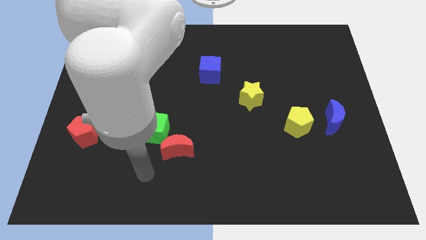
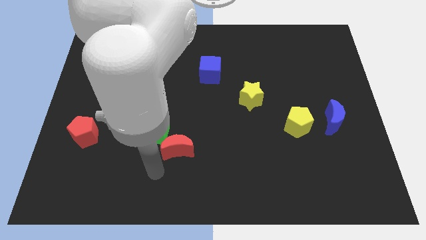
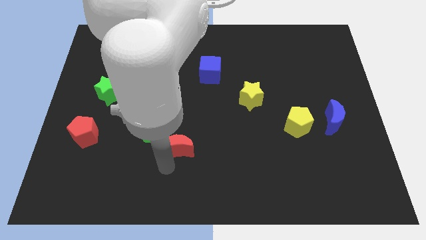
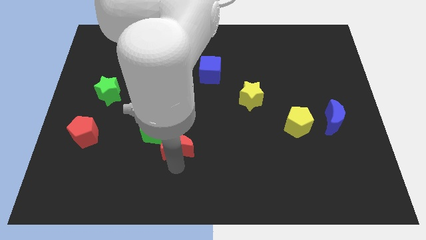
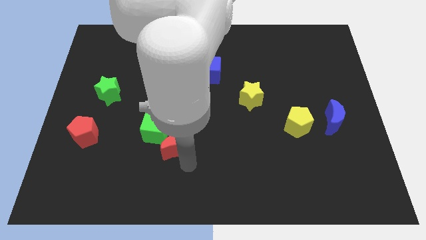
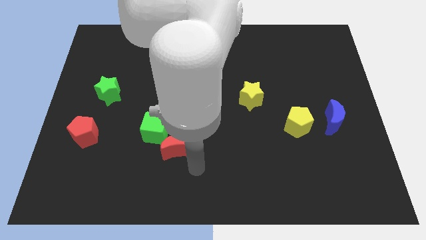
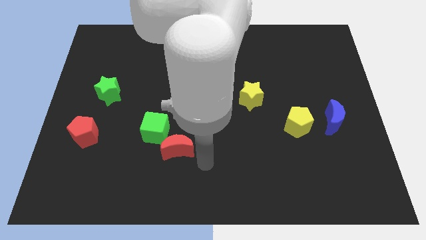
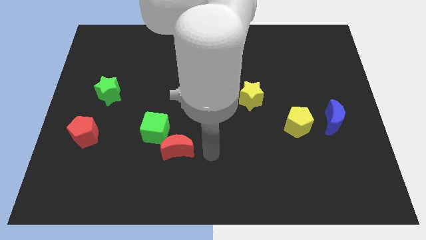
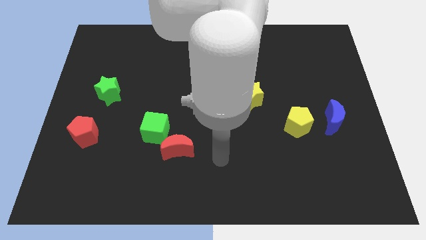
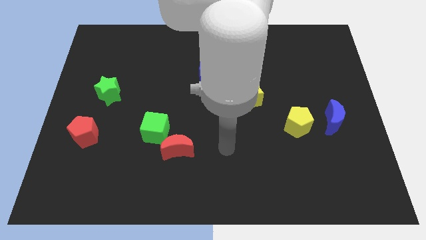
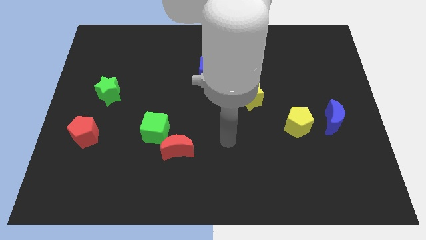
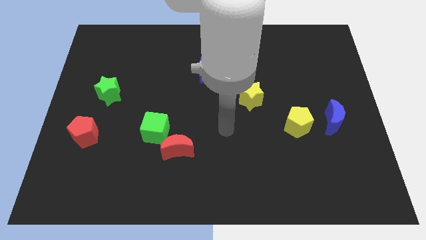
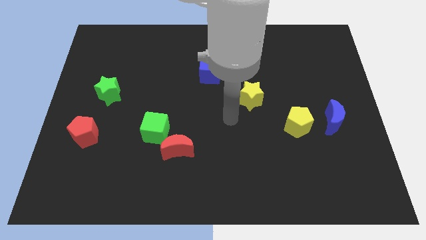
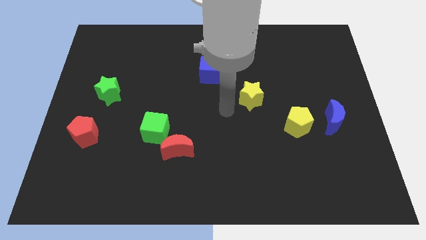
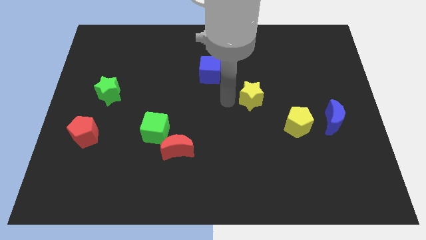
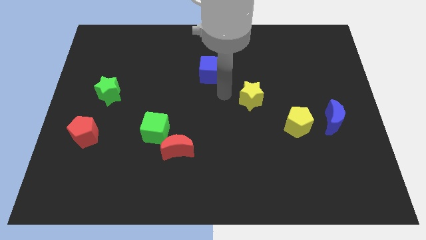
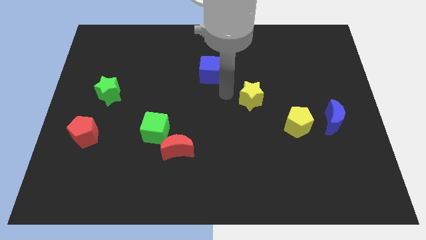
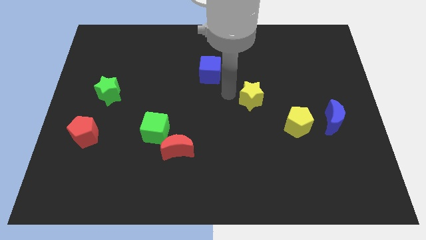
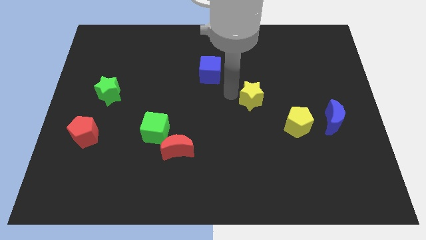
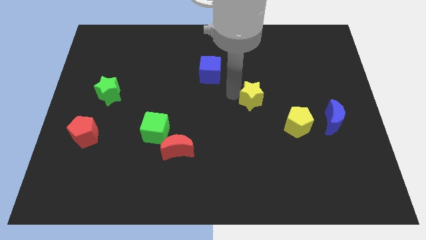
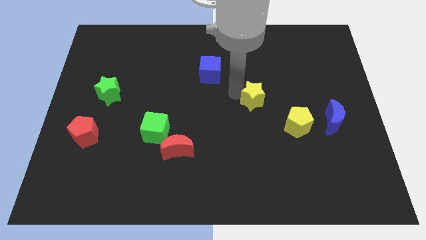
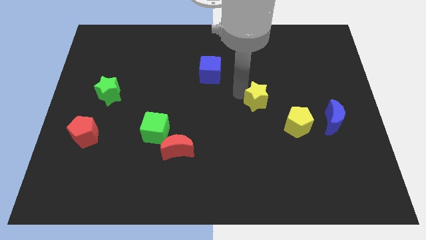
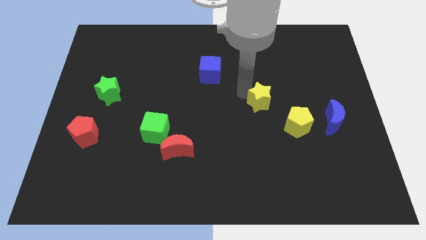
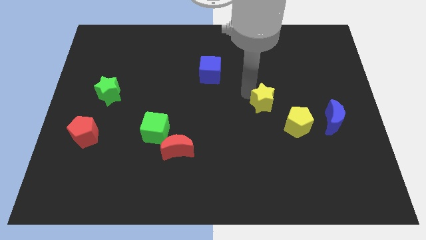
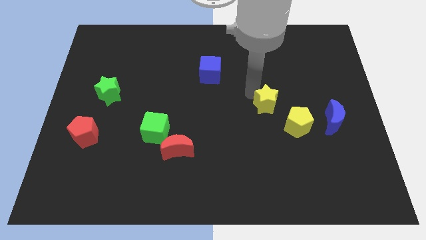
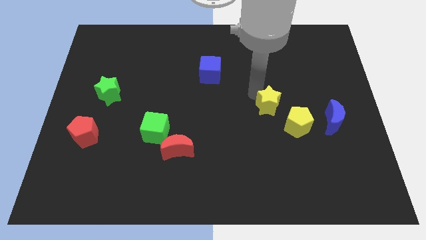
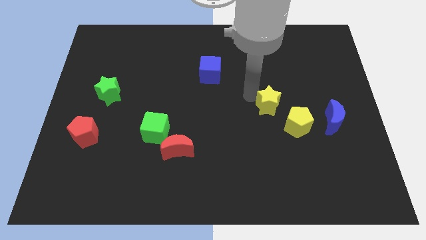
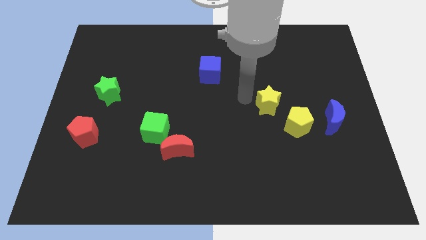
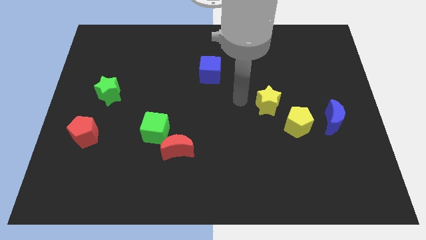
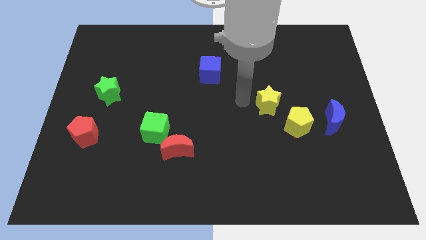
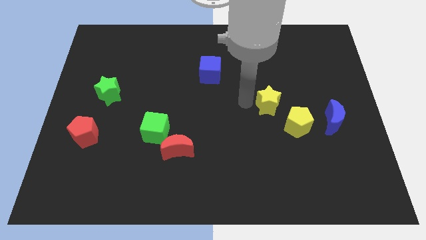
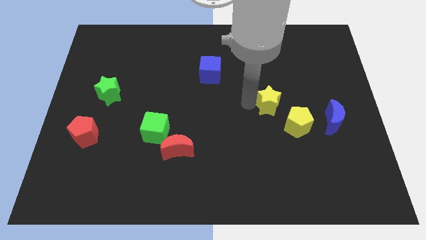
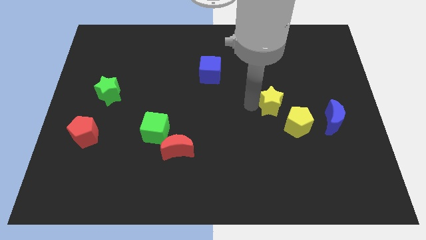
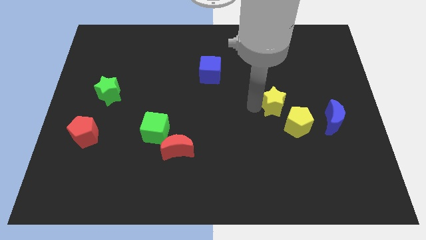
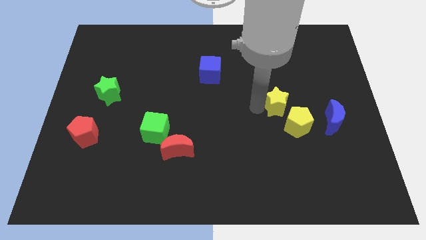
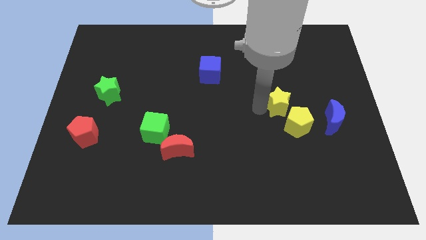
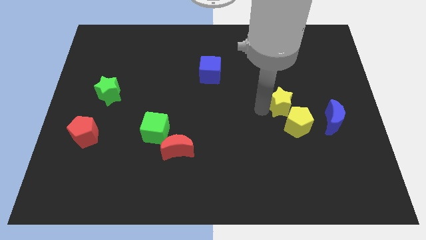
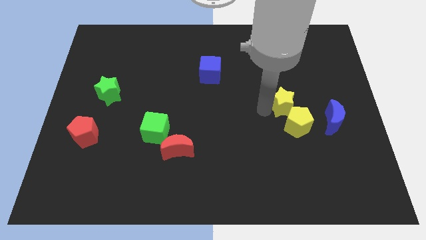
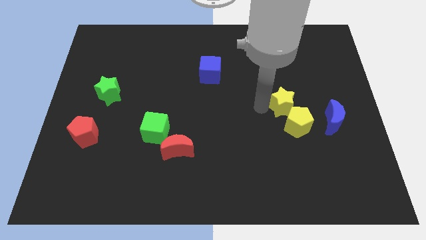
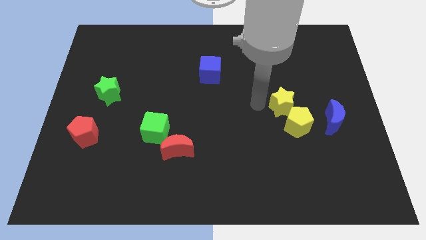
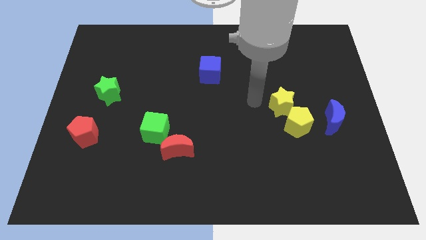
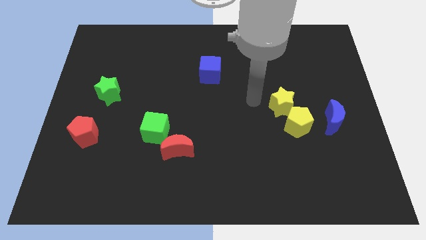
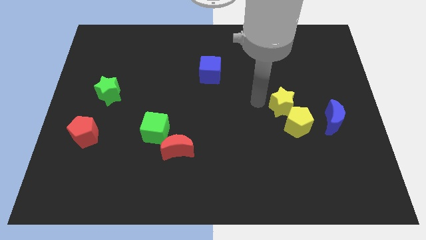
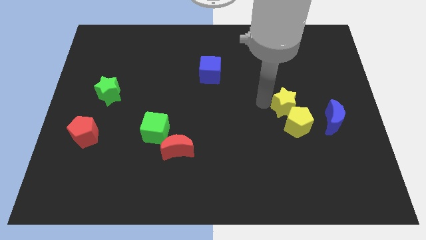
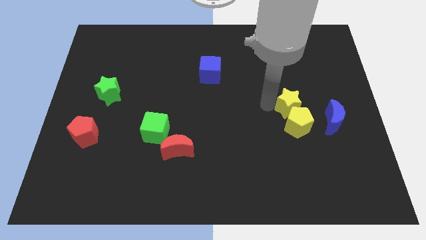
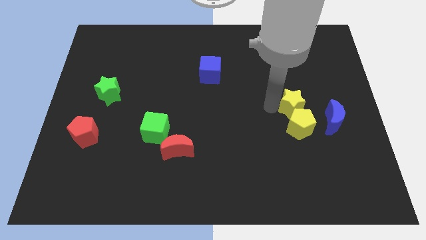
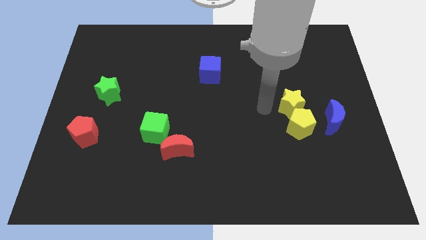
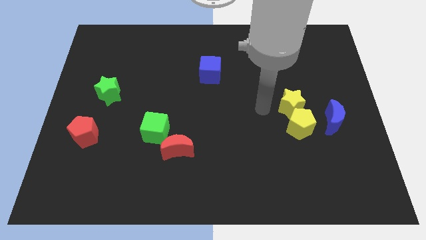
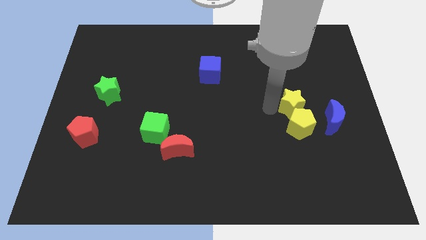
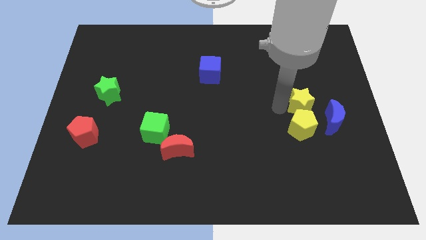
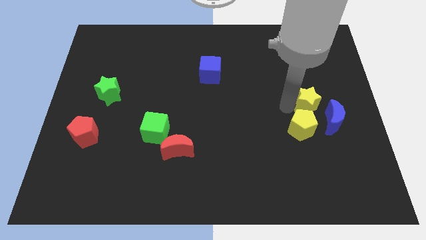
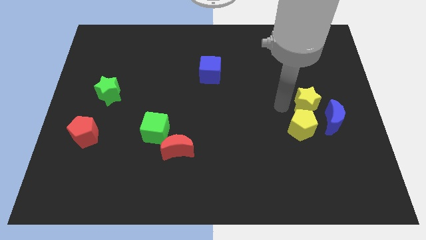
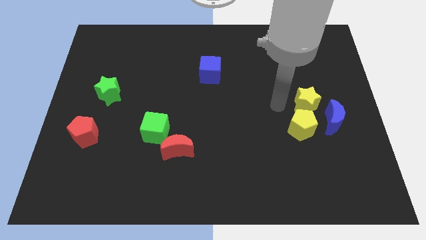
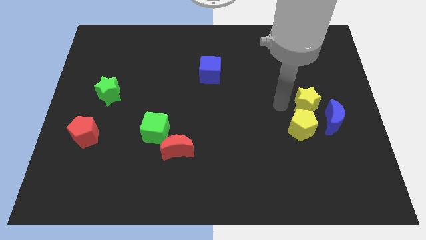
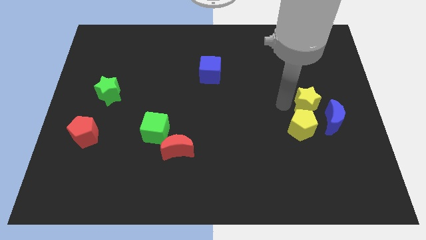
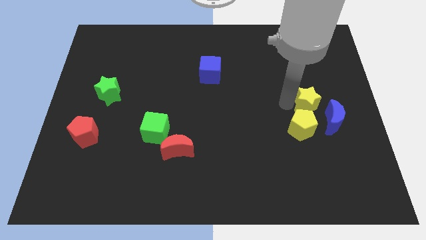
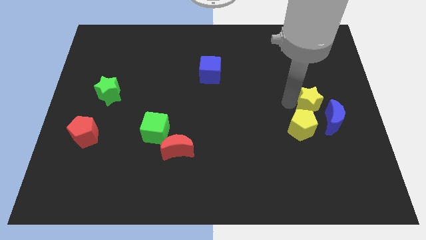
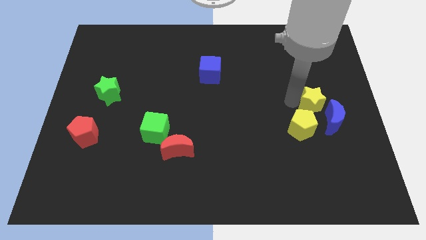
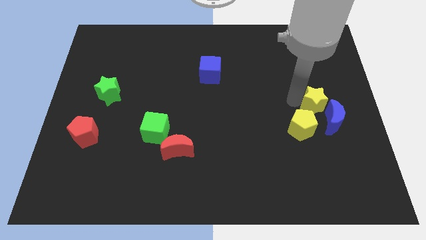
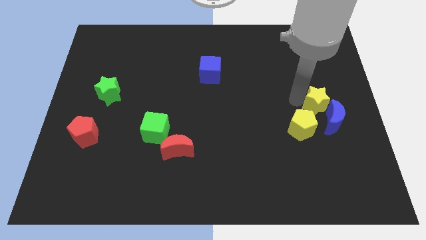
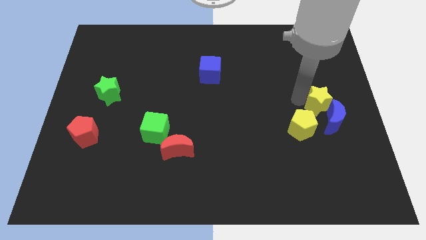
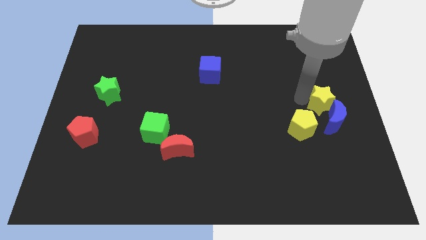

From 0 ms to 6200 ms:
put the yellow star to the center right

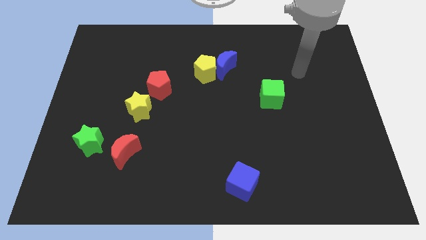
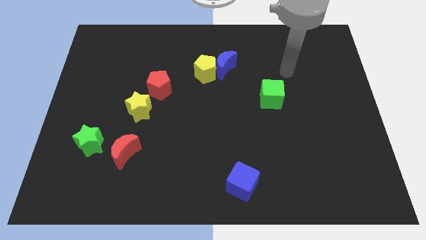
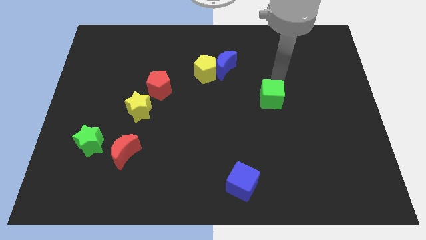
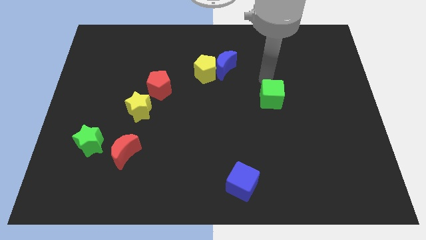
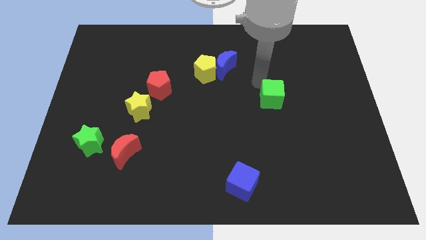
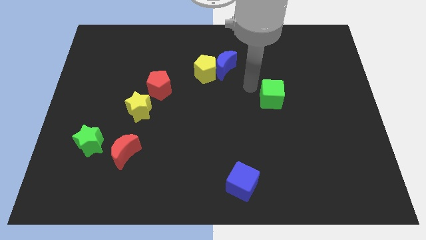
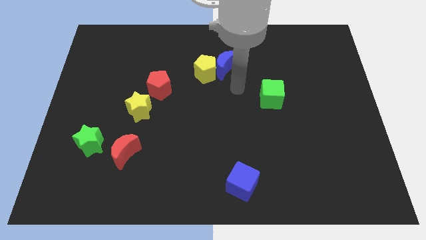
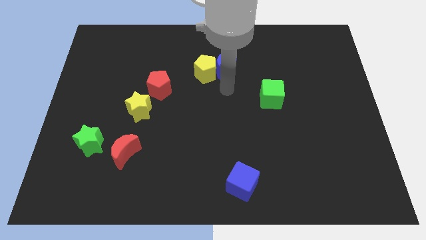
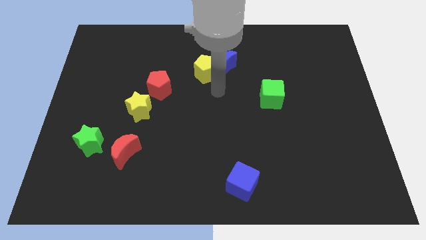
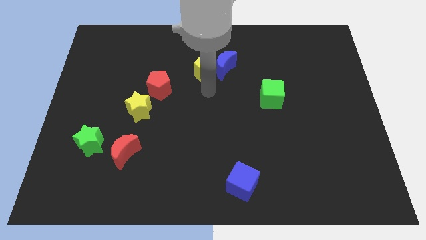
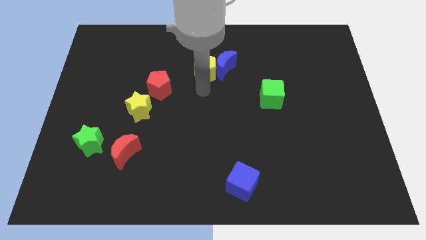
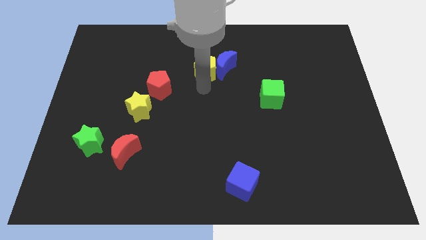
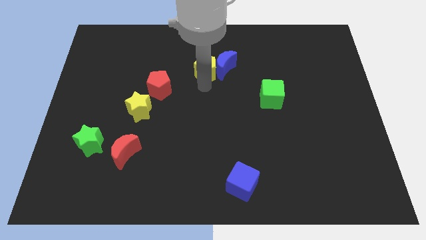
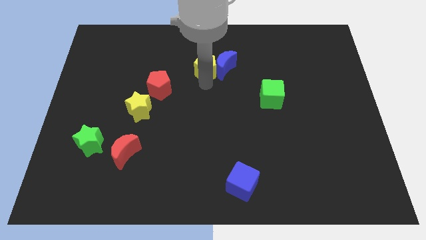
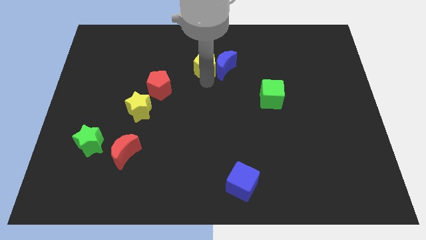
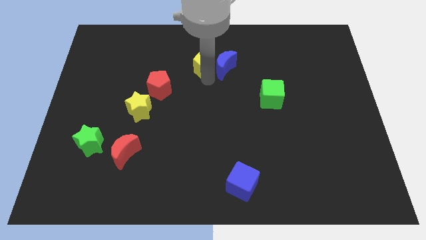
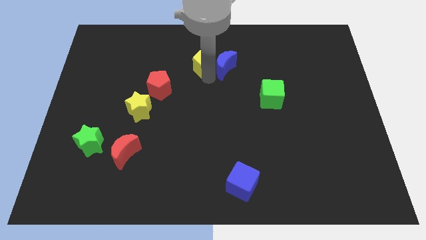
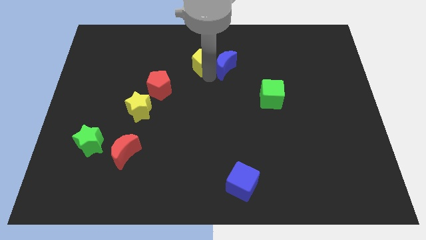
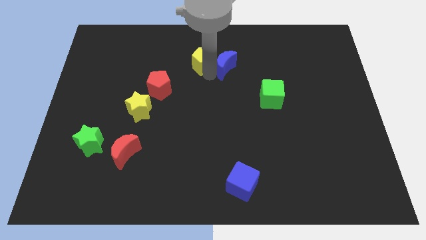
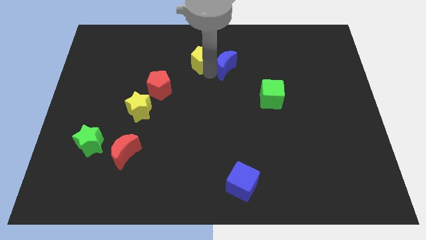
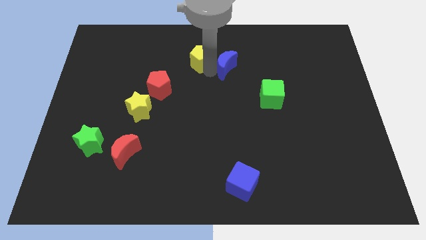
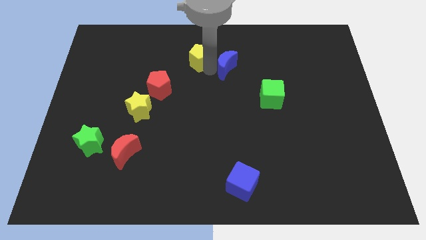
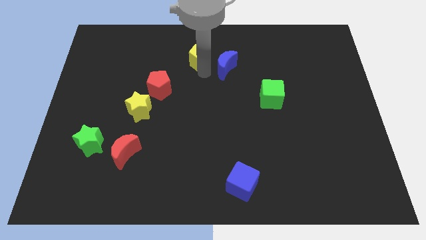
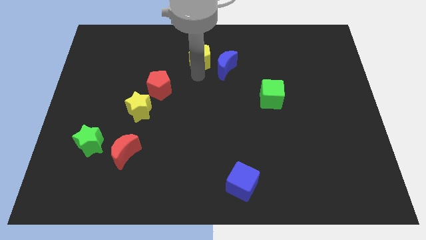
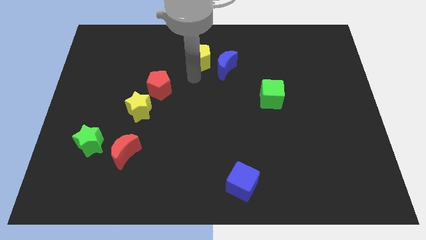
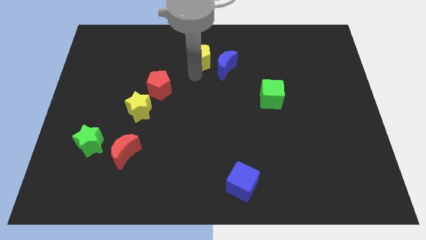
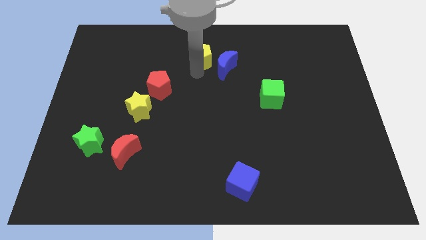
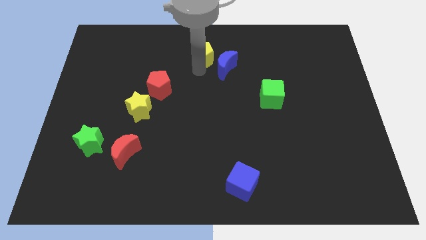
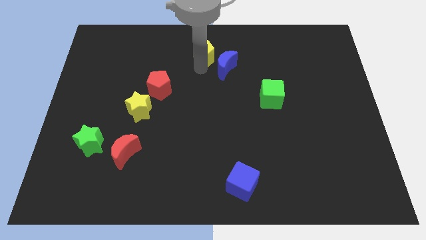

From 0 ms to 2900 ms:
move the yellow pentagon to the towards your base
